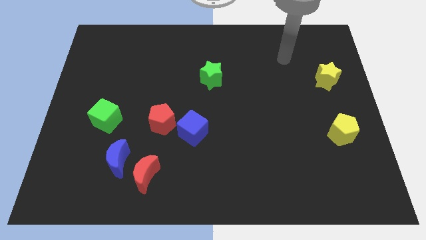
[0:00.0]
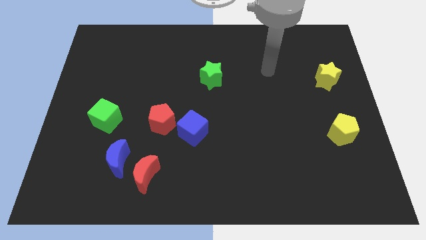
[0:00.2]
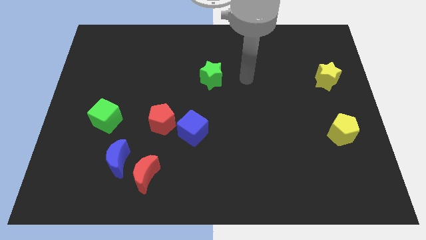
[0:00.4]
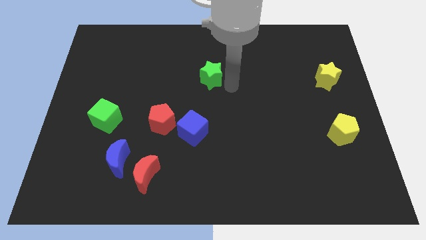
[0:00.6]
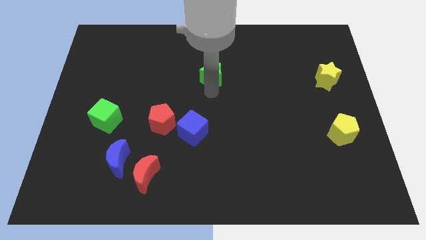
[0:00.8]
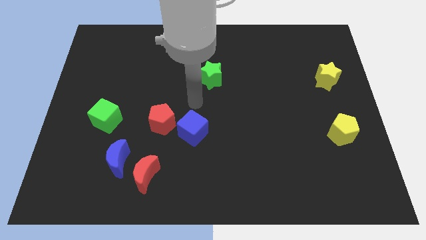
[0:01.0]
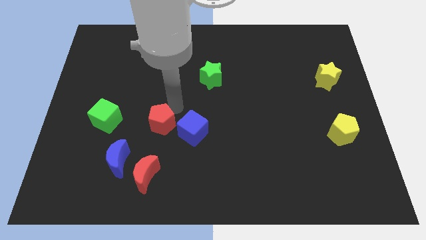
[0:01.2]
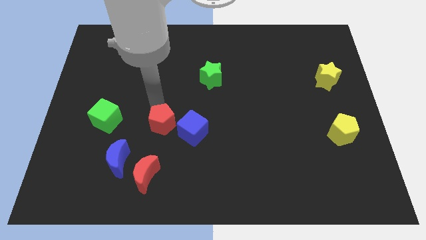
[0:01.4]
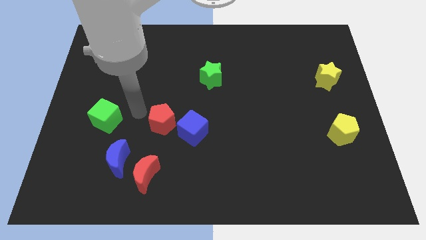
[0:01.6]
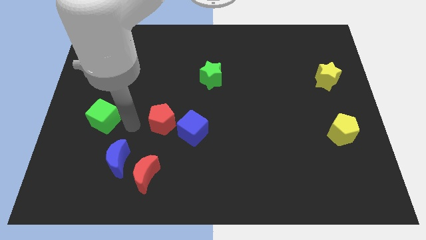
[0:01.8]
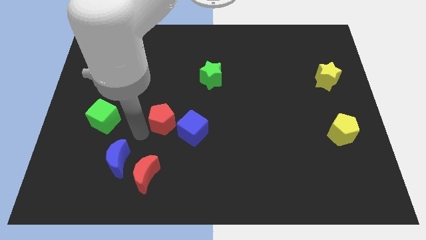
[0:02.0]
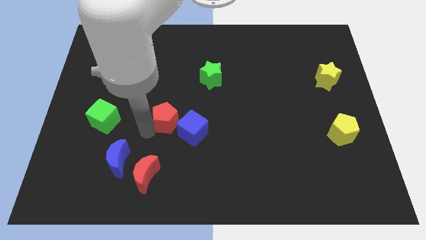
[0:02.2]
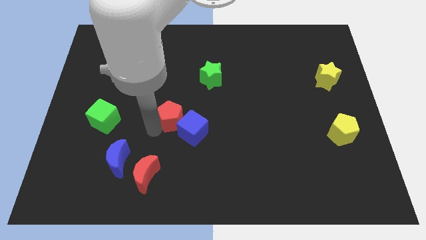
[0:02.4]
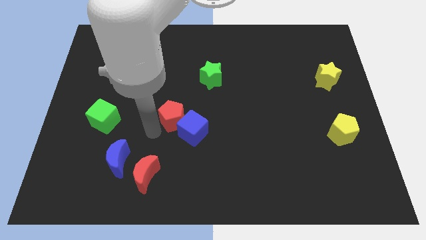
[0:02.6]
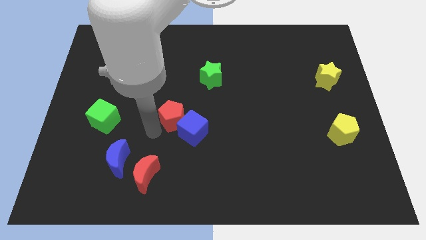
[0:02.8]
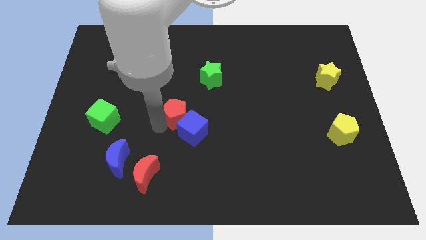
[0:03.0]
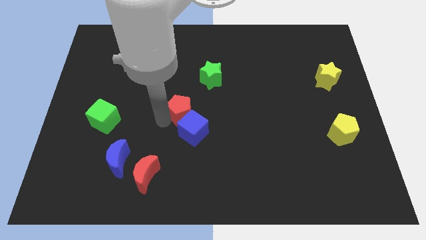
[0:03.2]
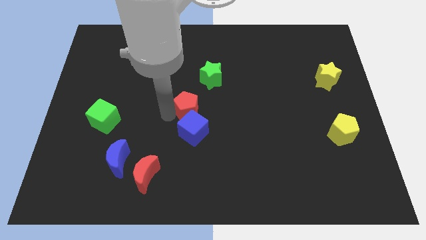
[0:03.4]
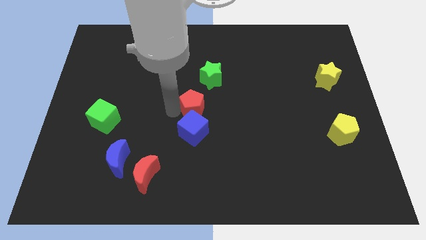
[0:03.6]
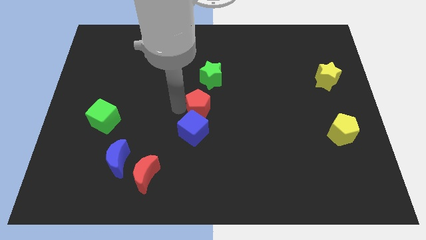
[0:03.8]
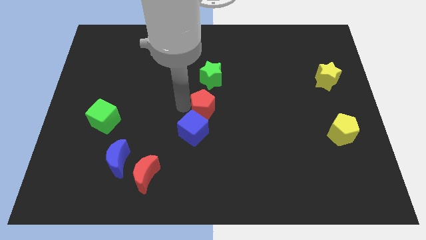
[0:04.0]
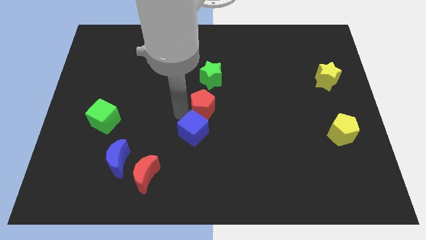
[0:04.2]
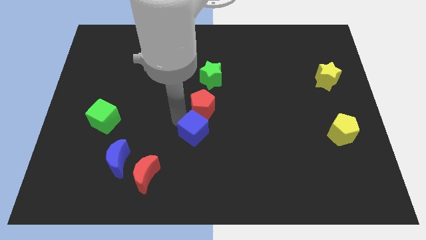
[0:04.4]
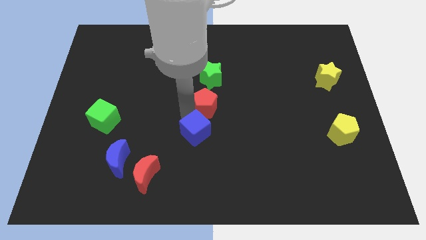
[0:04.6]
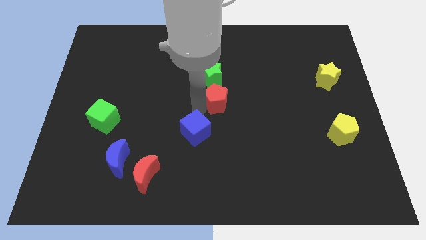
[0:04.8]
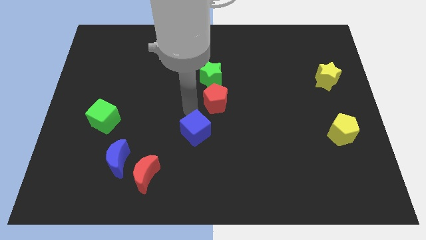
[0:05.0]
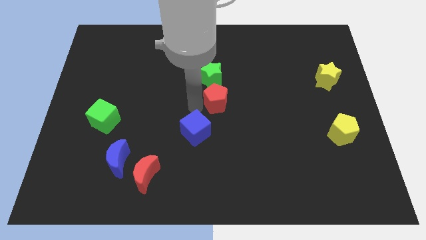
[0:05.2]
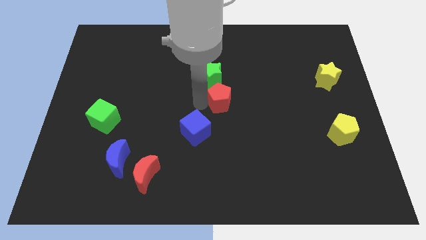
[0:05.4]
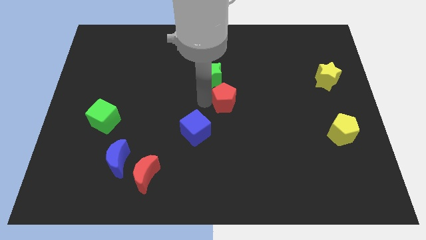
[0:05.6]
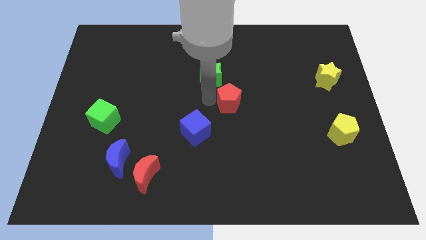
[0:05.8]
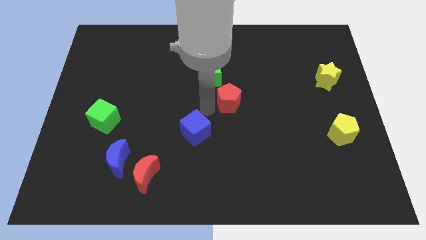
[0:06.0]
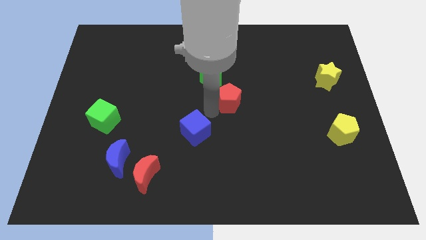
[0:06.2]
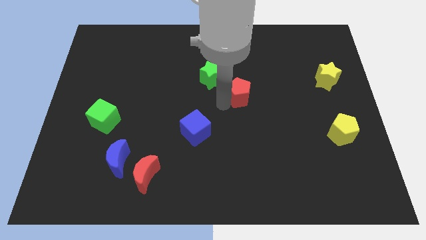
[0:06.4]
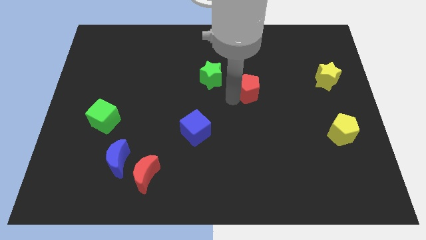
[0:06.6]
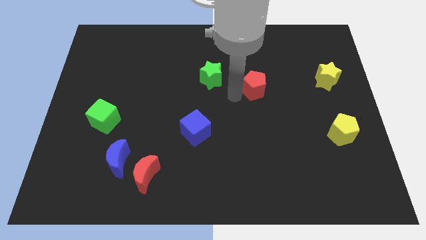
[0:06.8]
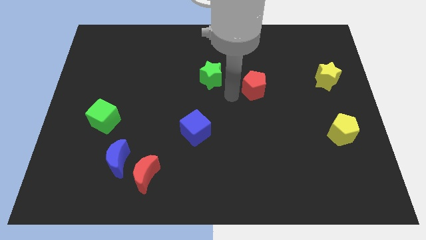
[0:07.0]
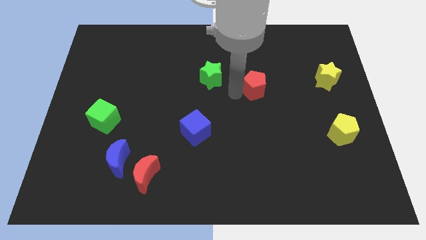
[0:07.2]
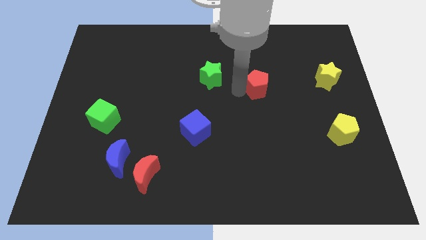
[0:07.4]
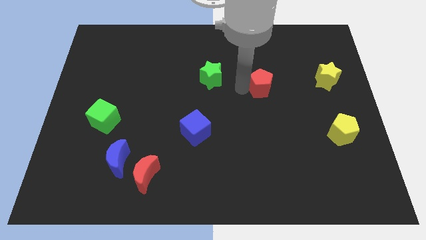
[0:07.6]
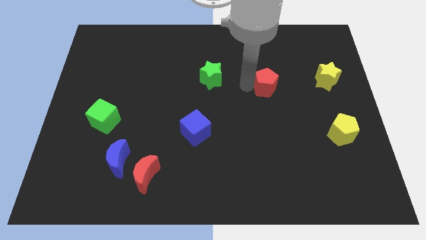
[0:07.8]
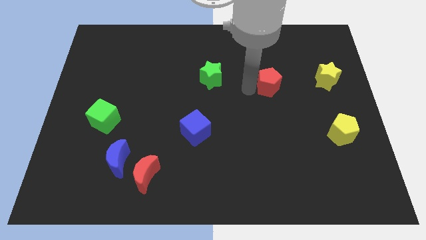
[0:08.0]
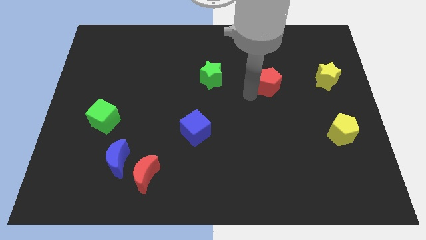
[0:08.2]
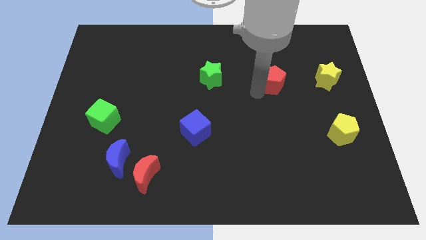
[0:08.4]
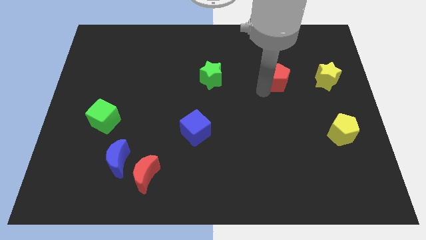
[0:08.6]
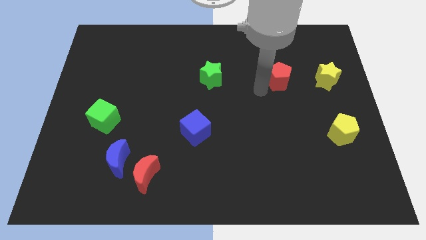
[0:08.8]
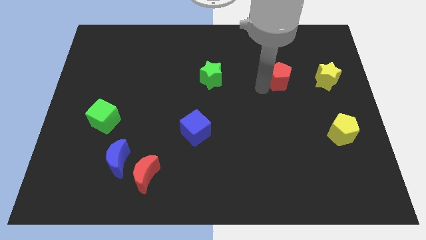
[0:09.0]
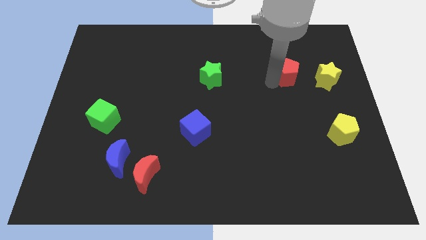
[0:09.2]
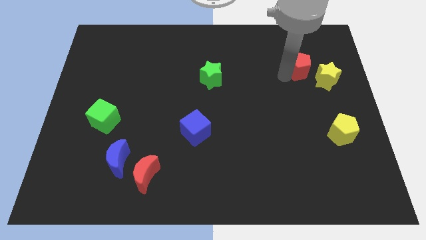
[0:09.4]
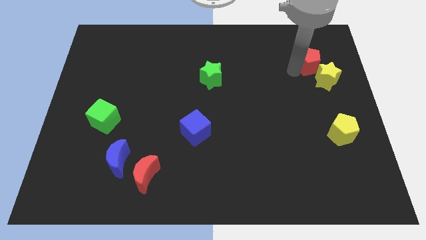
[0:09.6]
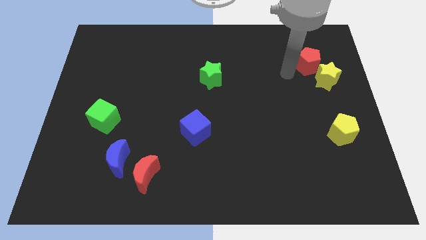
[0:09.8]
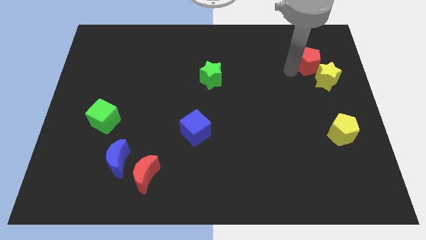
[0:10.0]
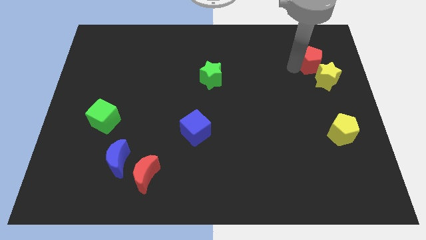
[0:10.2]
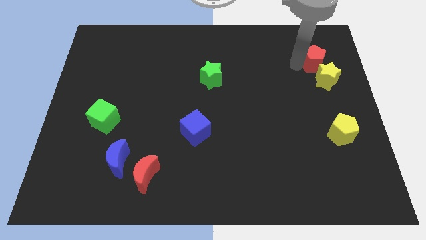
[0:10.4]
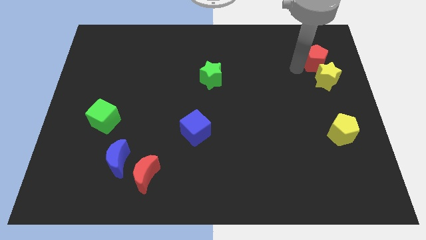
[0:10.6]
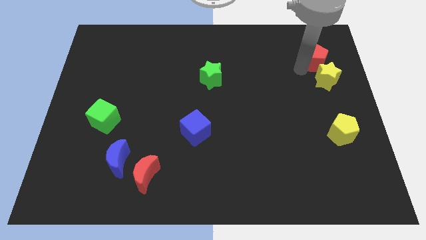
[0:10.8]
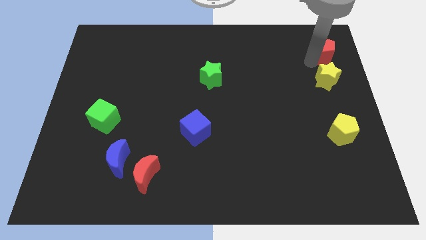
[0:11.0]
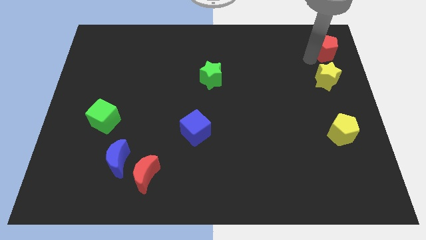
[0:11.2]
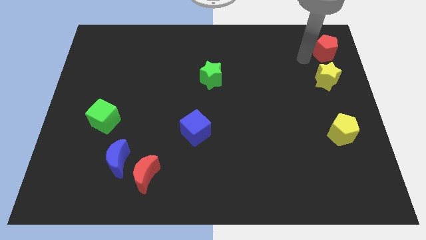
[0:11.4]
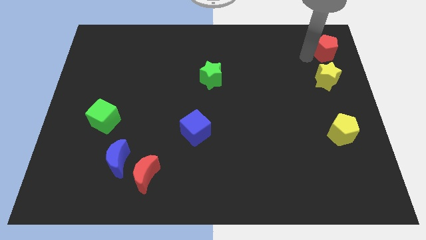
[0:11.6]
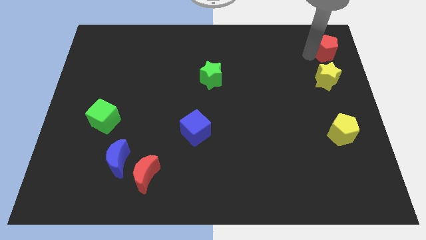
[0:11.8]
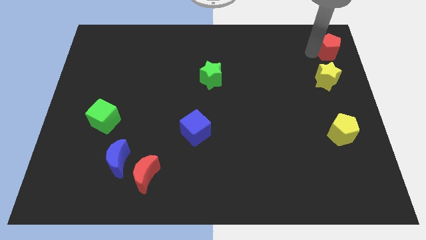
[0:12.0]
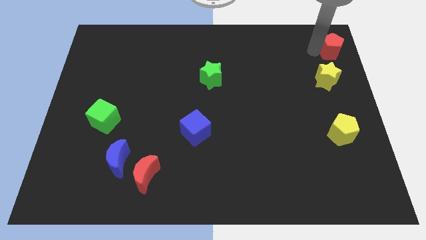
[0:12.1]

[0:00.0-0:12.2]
move the red pentagon to the top right corner
